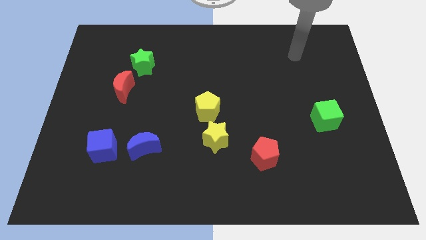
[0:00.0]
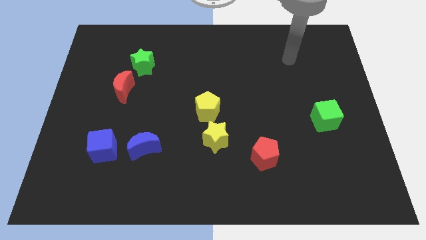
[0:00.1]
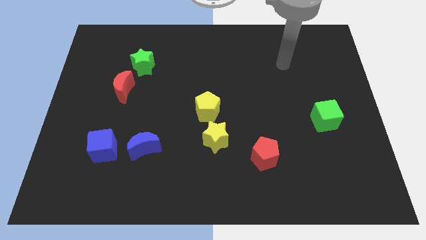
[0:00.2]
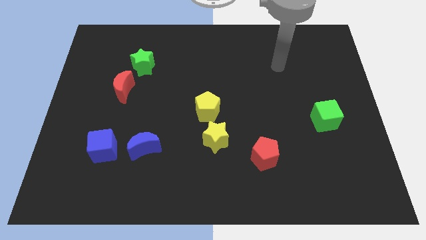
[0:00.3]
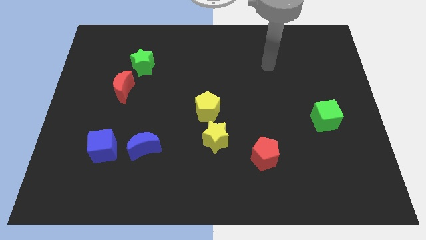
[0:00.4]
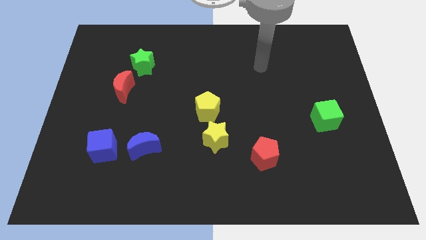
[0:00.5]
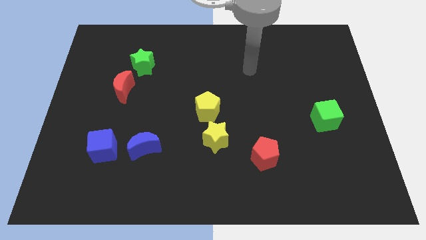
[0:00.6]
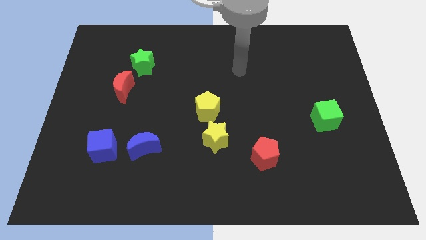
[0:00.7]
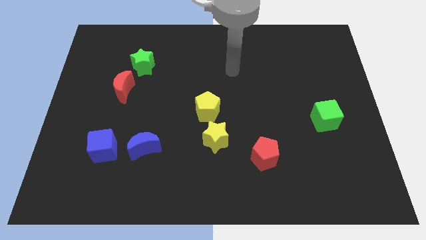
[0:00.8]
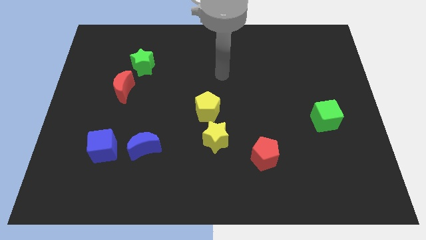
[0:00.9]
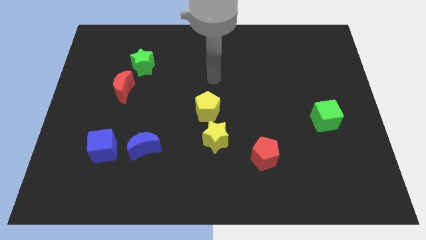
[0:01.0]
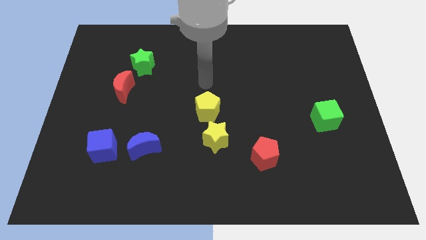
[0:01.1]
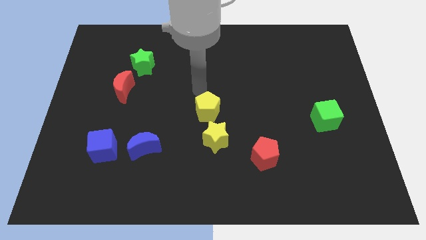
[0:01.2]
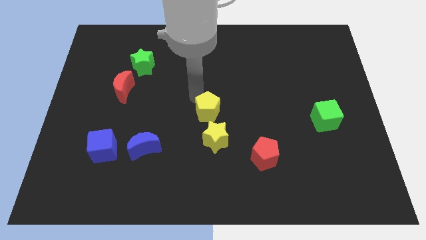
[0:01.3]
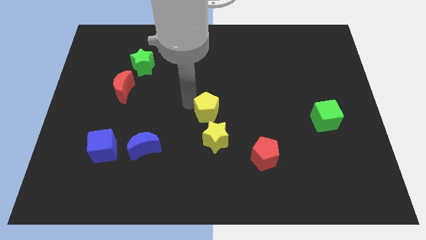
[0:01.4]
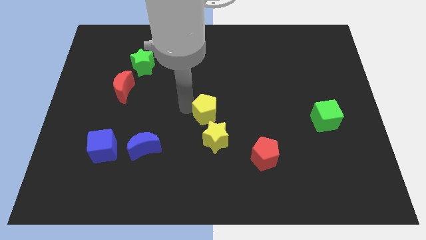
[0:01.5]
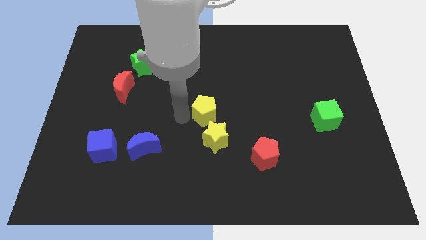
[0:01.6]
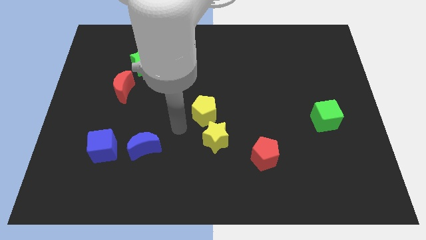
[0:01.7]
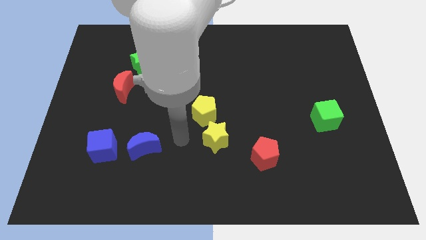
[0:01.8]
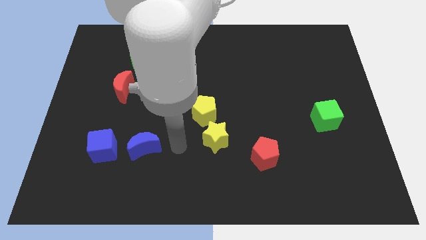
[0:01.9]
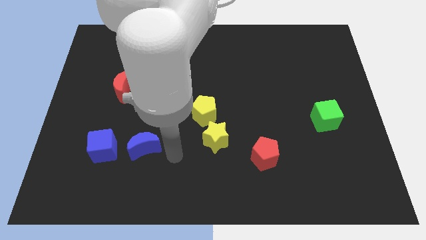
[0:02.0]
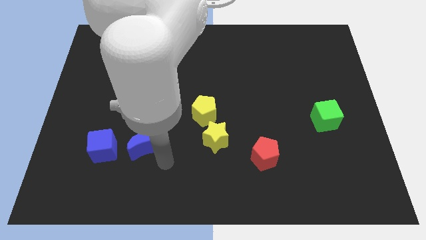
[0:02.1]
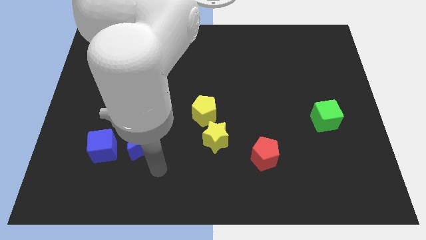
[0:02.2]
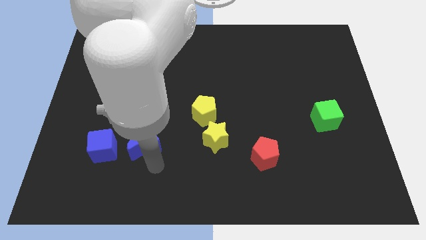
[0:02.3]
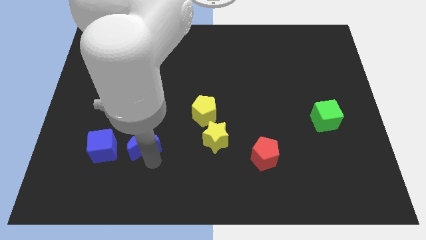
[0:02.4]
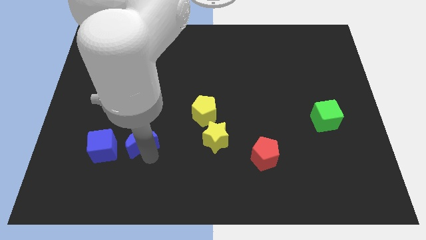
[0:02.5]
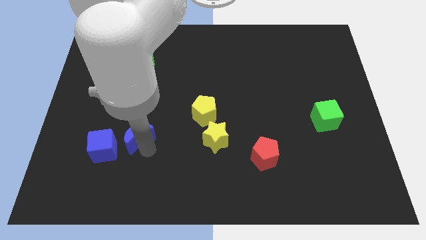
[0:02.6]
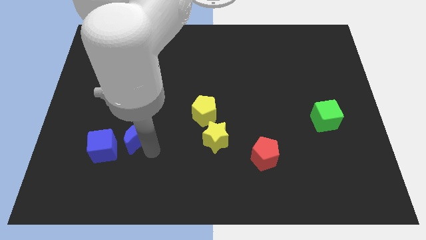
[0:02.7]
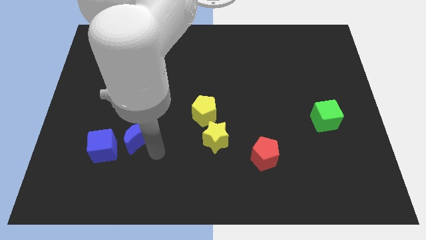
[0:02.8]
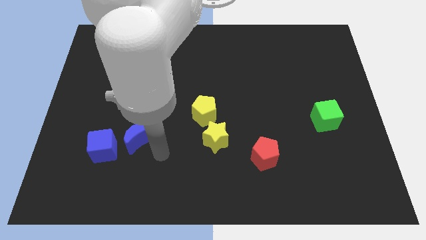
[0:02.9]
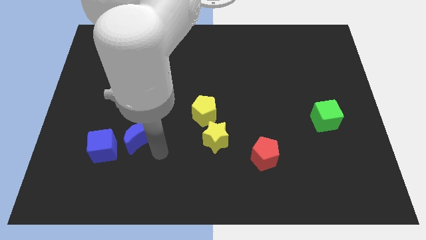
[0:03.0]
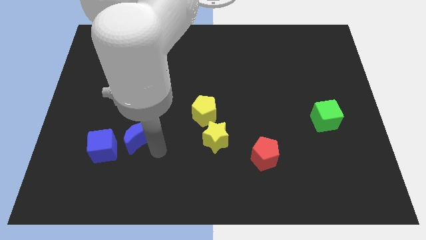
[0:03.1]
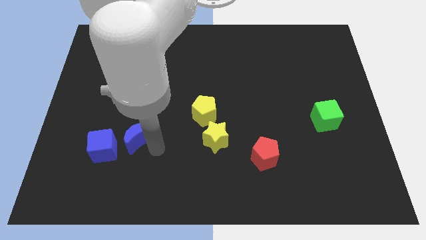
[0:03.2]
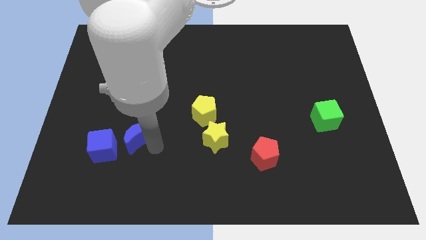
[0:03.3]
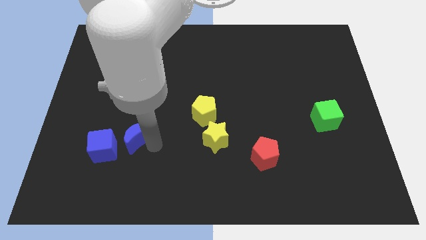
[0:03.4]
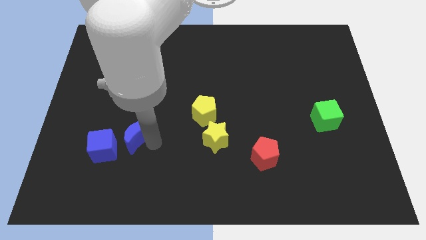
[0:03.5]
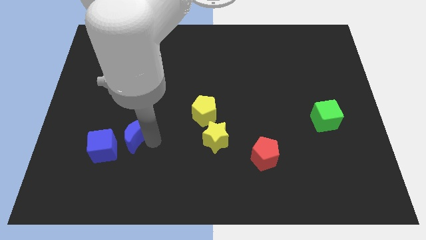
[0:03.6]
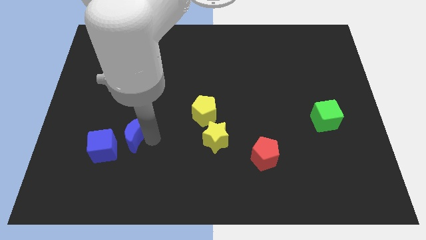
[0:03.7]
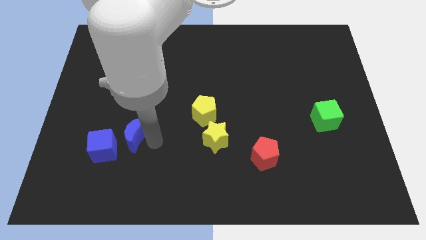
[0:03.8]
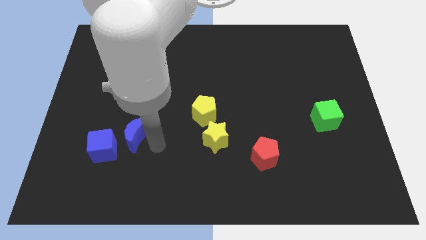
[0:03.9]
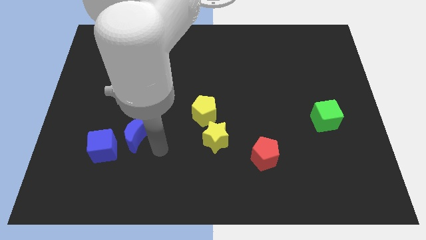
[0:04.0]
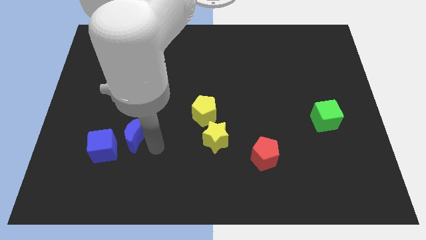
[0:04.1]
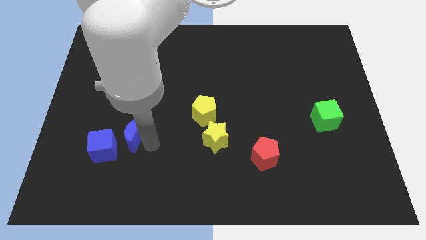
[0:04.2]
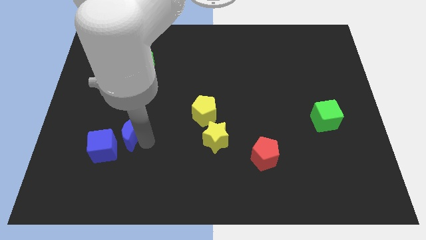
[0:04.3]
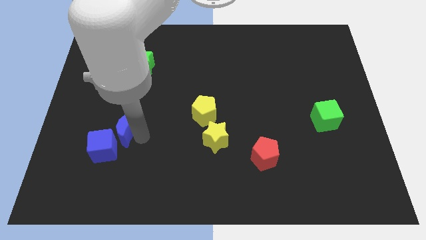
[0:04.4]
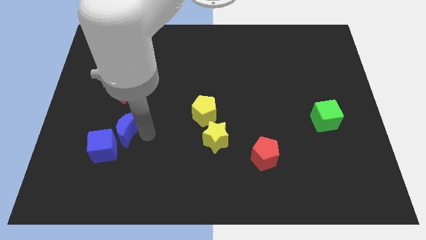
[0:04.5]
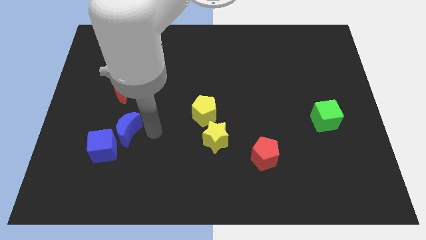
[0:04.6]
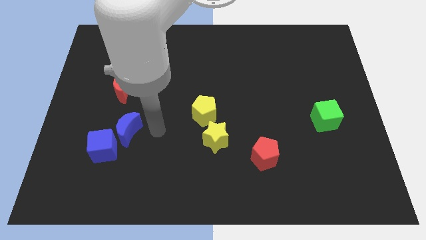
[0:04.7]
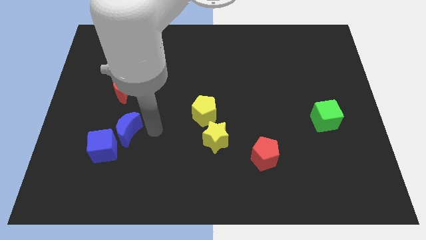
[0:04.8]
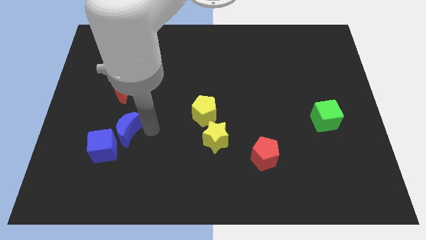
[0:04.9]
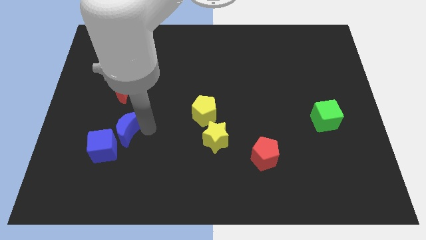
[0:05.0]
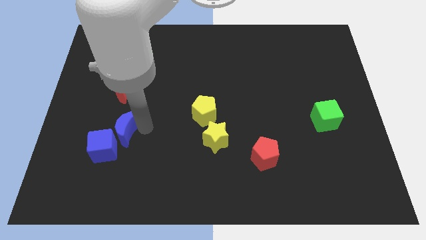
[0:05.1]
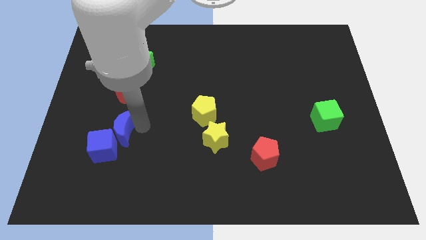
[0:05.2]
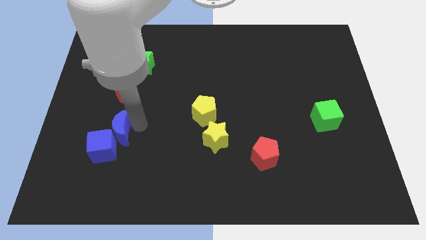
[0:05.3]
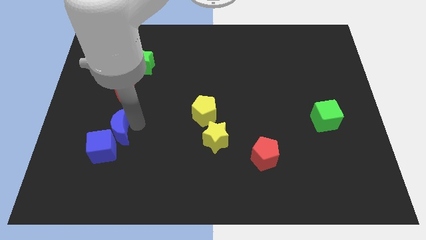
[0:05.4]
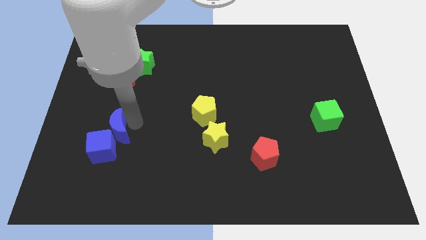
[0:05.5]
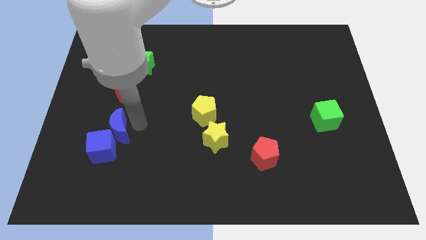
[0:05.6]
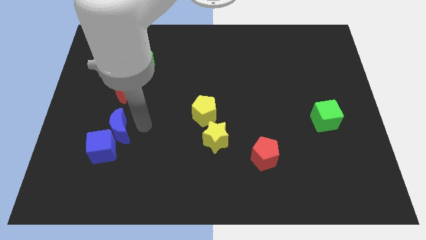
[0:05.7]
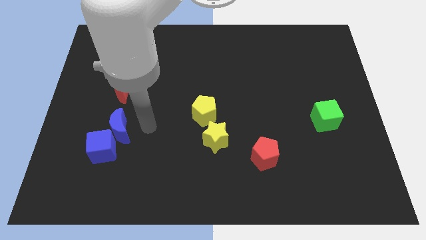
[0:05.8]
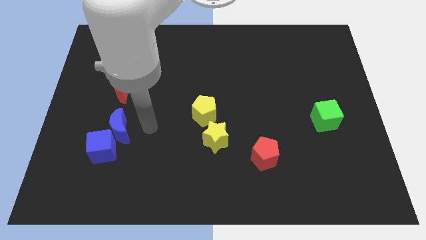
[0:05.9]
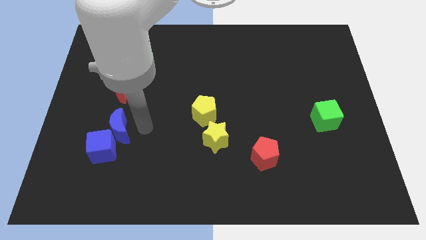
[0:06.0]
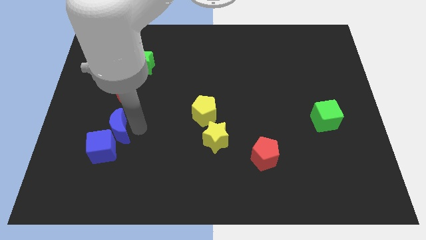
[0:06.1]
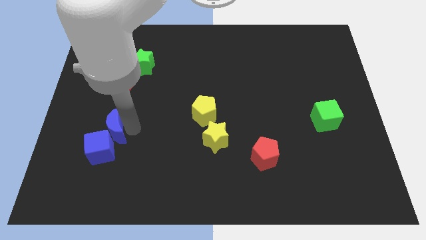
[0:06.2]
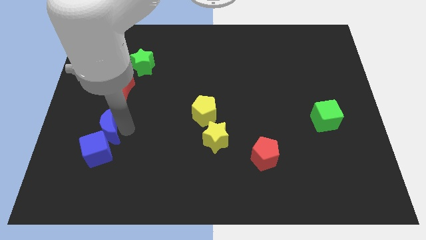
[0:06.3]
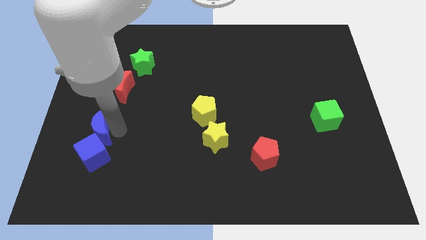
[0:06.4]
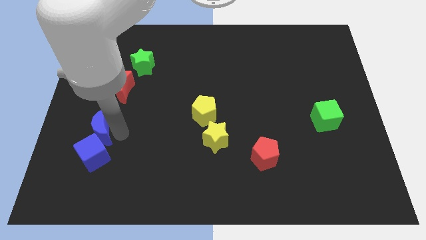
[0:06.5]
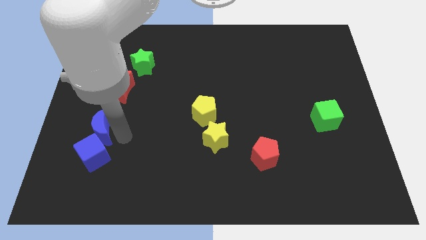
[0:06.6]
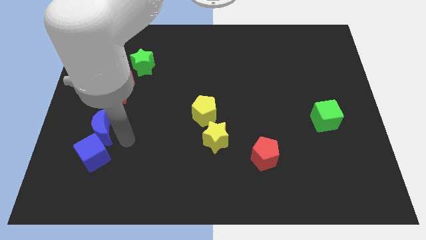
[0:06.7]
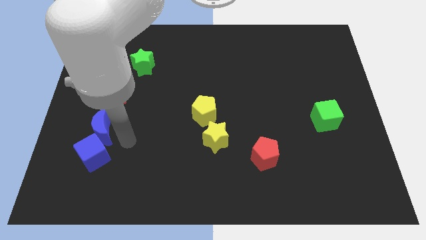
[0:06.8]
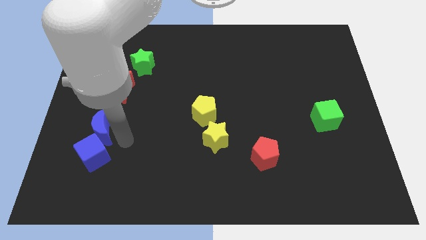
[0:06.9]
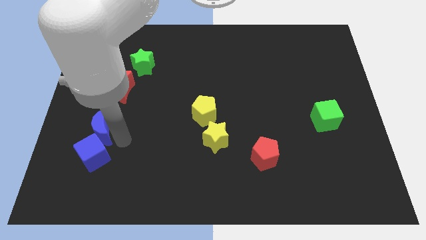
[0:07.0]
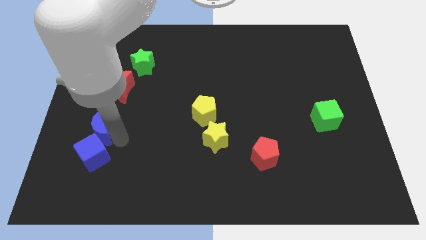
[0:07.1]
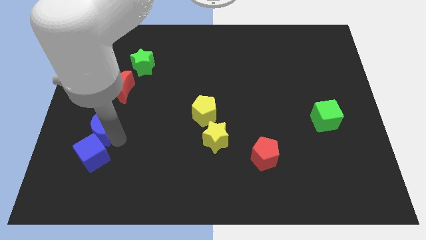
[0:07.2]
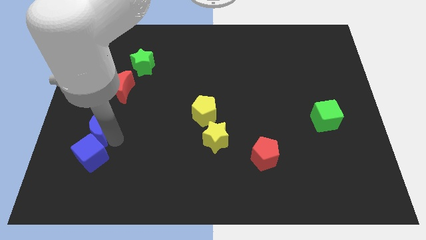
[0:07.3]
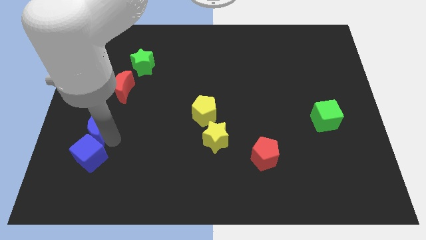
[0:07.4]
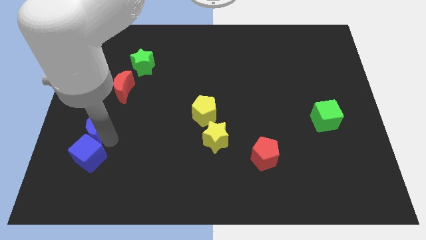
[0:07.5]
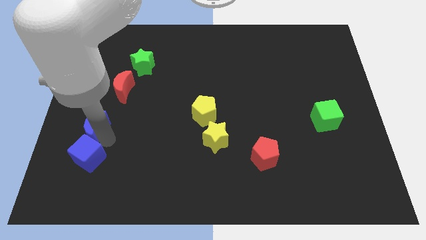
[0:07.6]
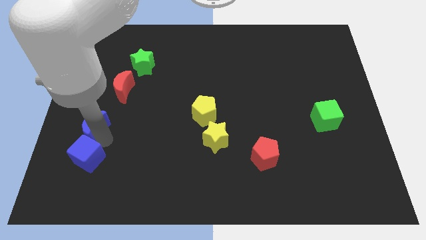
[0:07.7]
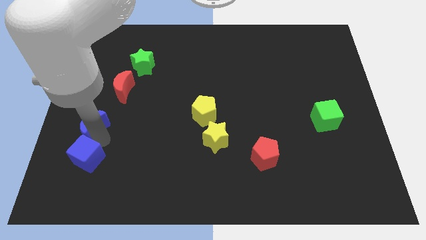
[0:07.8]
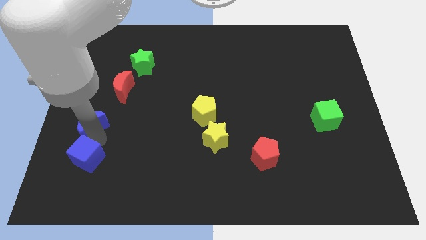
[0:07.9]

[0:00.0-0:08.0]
move the blue moon to the left side
